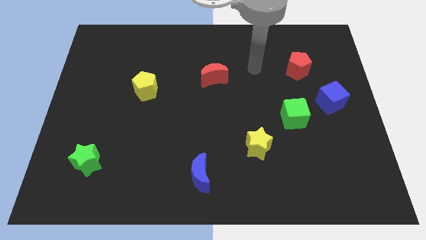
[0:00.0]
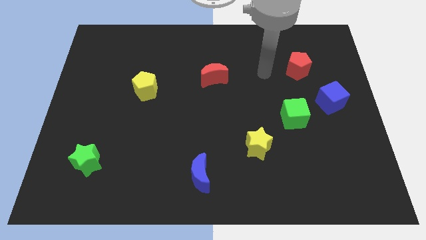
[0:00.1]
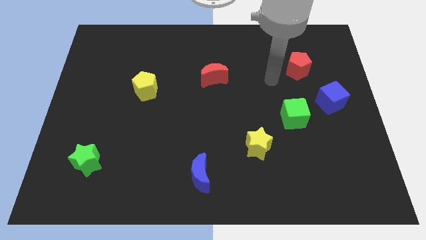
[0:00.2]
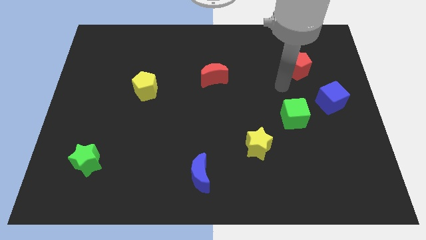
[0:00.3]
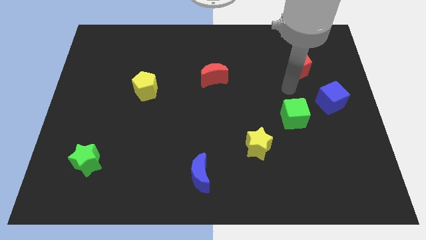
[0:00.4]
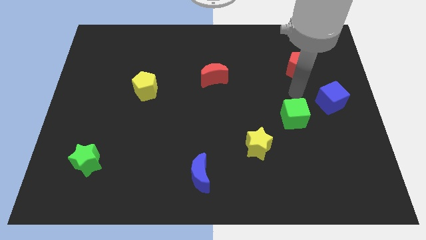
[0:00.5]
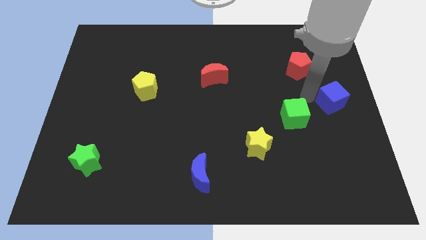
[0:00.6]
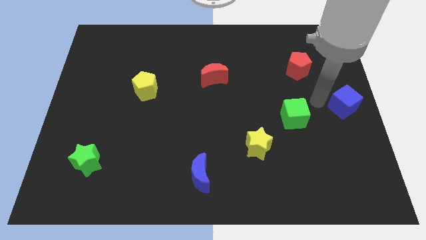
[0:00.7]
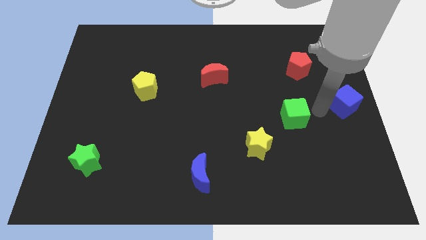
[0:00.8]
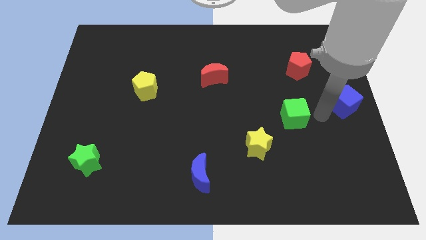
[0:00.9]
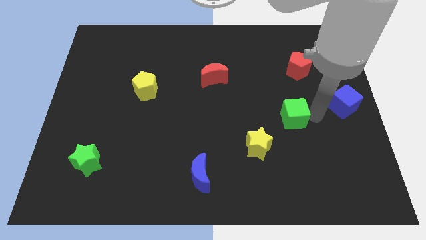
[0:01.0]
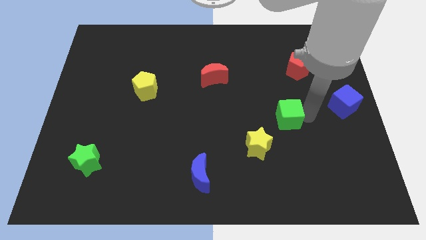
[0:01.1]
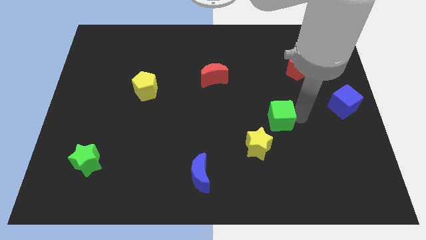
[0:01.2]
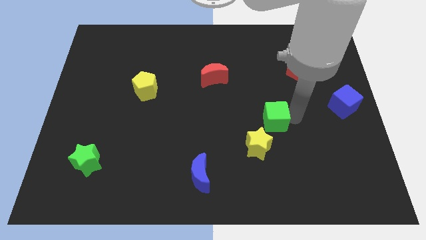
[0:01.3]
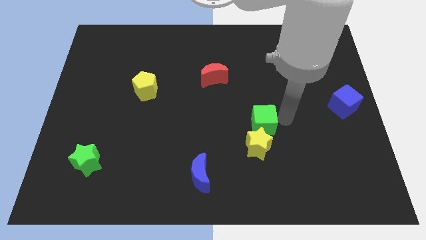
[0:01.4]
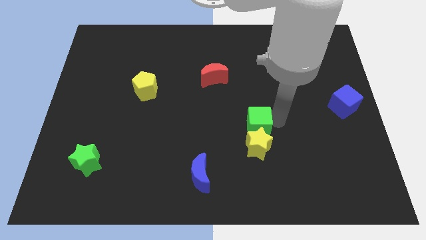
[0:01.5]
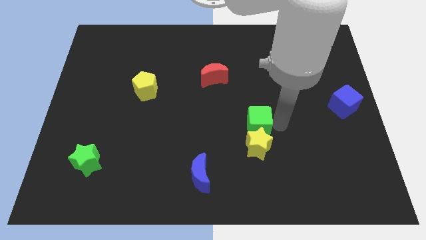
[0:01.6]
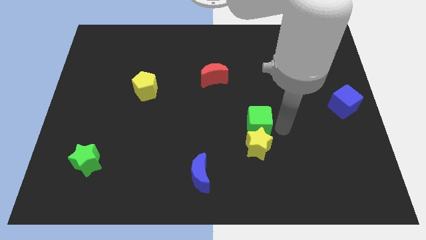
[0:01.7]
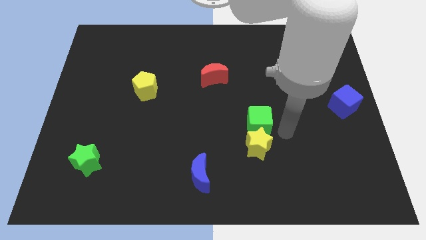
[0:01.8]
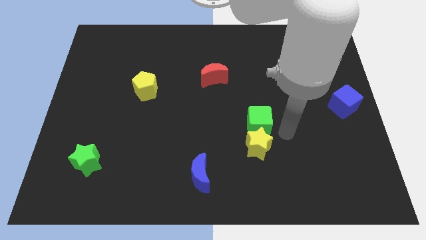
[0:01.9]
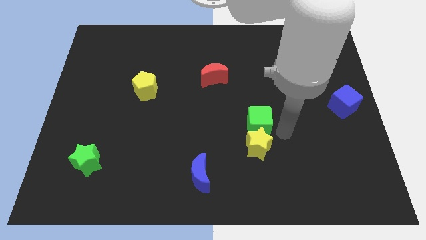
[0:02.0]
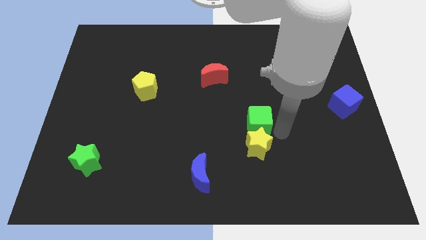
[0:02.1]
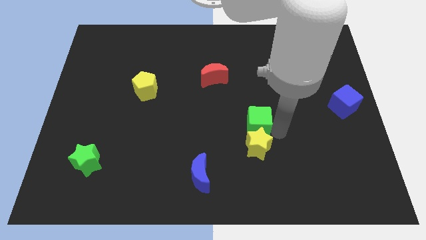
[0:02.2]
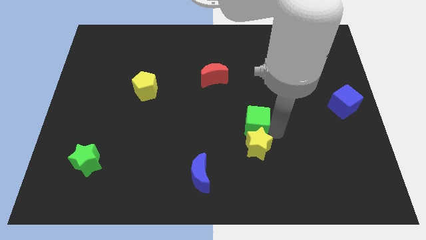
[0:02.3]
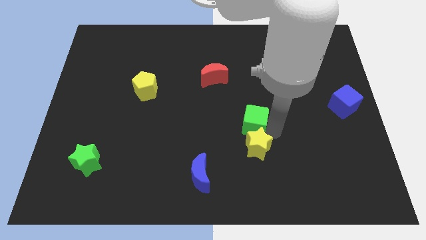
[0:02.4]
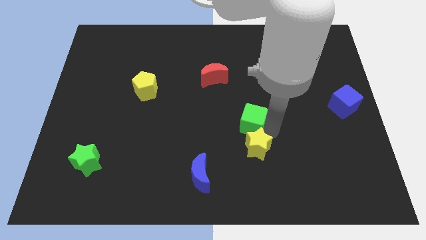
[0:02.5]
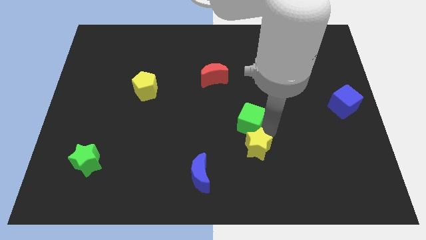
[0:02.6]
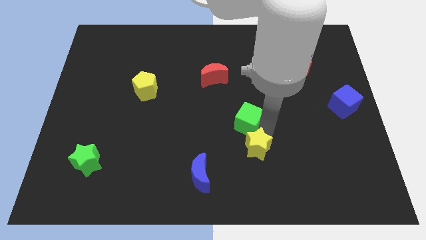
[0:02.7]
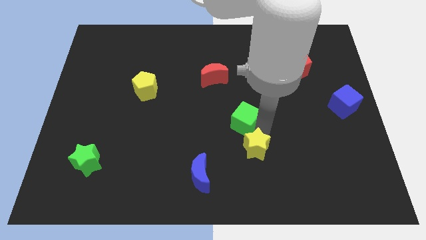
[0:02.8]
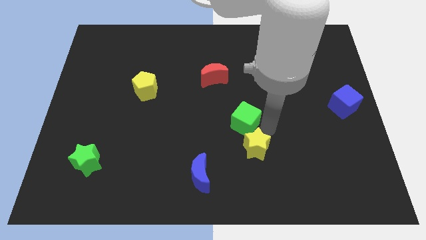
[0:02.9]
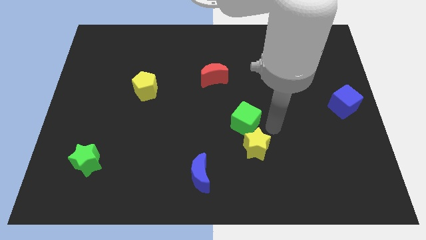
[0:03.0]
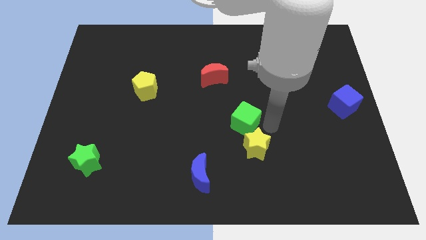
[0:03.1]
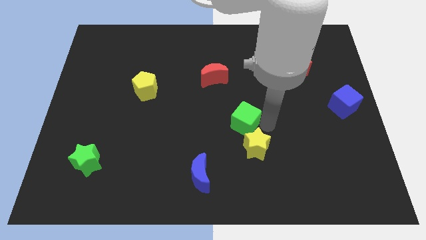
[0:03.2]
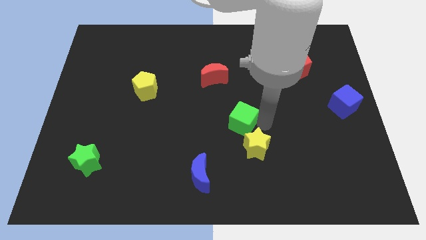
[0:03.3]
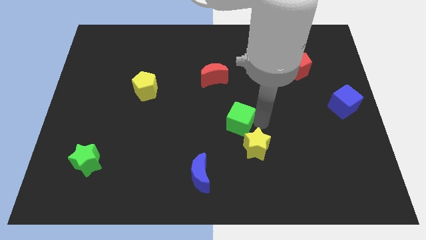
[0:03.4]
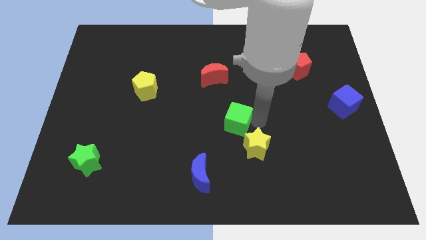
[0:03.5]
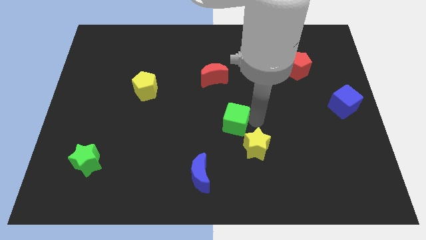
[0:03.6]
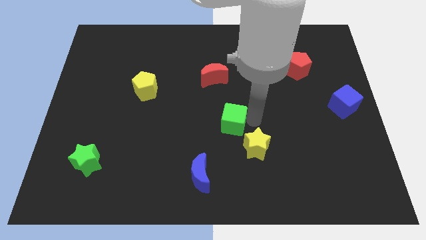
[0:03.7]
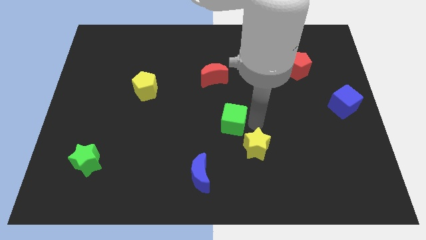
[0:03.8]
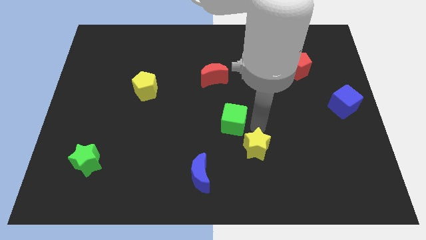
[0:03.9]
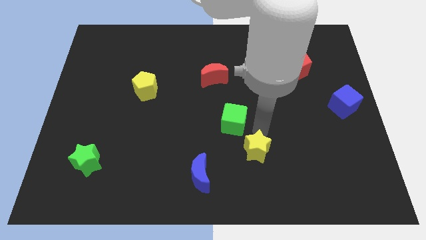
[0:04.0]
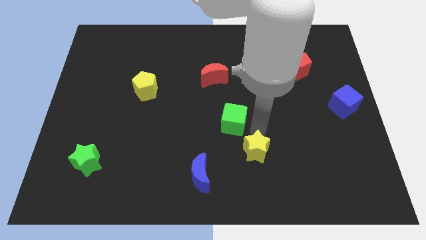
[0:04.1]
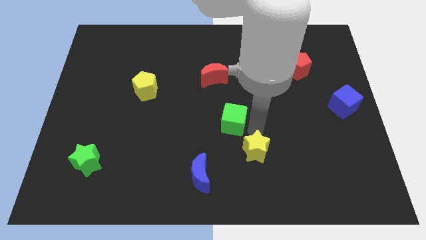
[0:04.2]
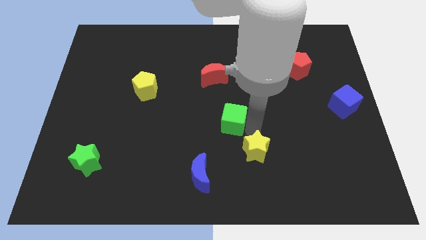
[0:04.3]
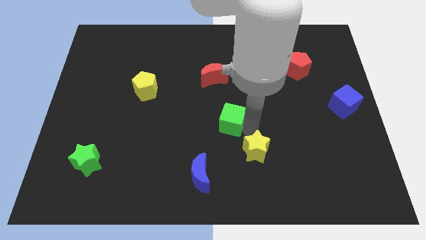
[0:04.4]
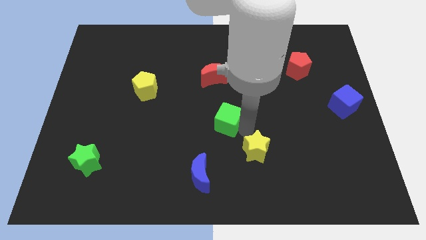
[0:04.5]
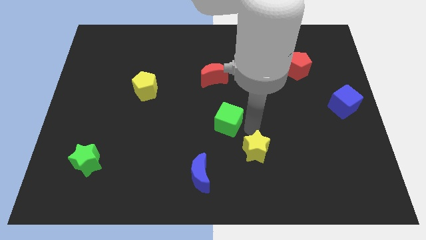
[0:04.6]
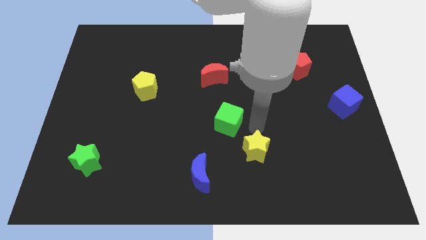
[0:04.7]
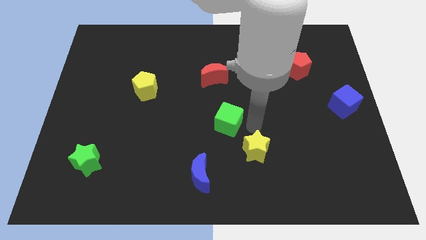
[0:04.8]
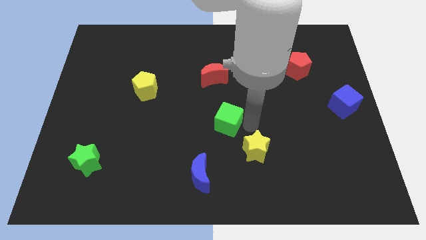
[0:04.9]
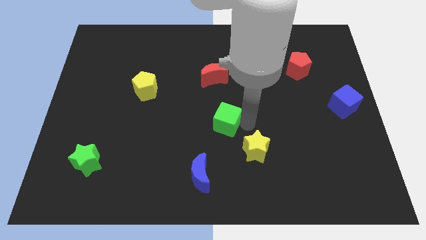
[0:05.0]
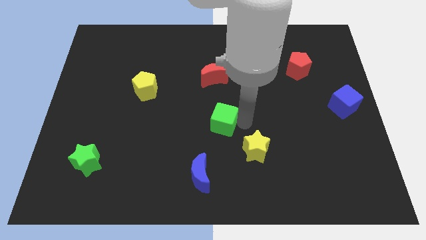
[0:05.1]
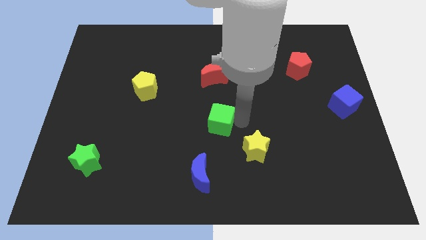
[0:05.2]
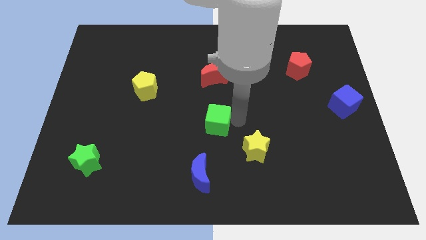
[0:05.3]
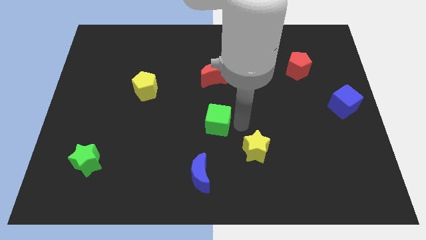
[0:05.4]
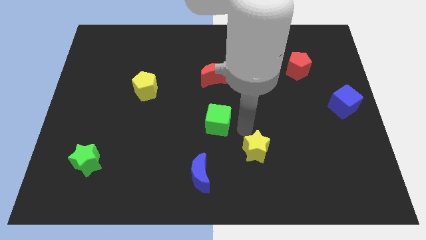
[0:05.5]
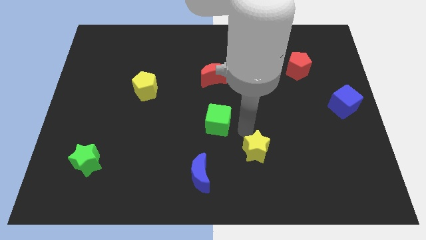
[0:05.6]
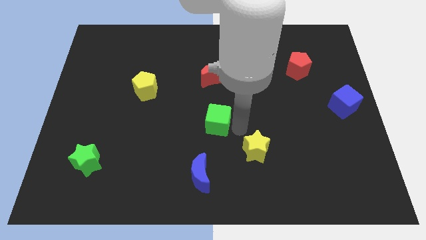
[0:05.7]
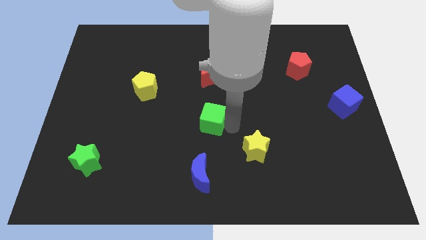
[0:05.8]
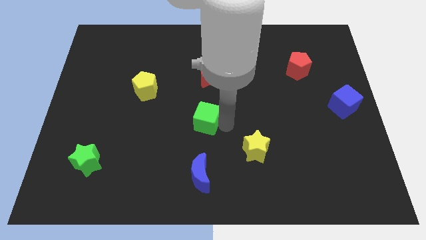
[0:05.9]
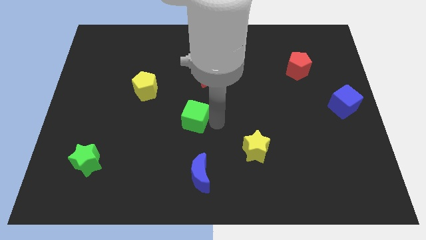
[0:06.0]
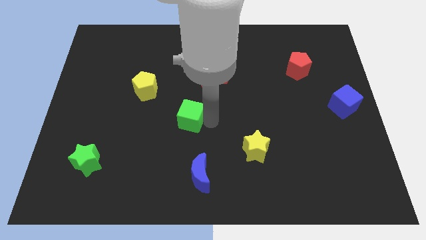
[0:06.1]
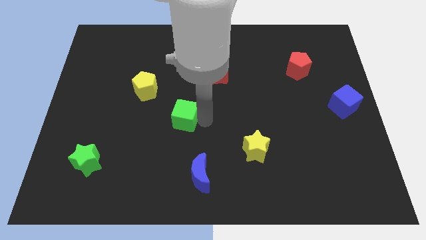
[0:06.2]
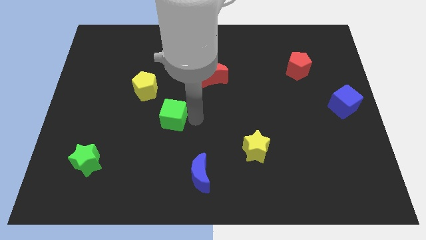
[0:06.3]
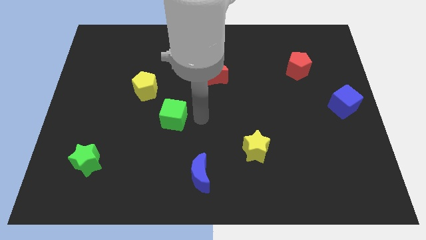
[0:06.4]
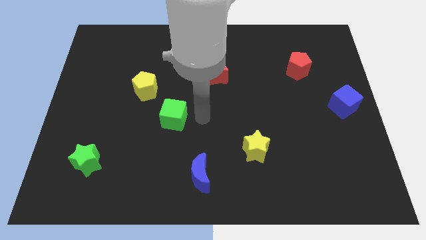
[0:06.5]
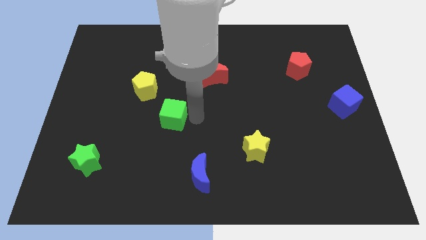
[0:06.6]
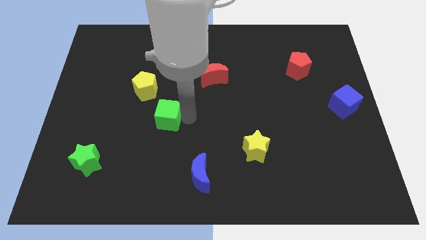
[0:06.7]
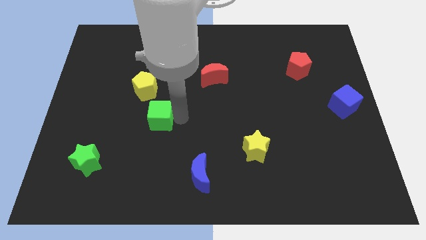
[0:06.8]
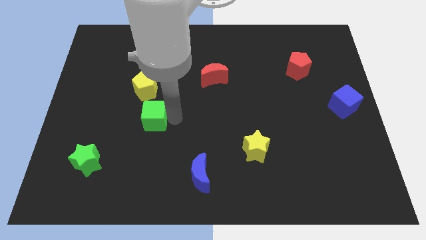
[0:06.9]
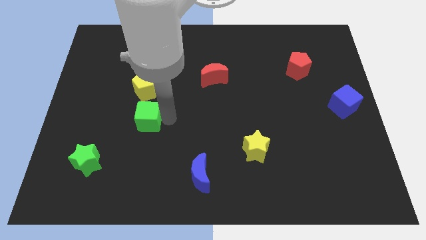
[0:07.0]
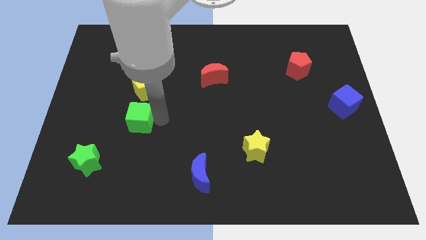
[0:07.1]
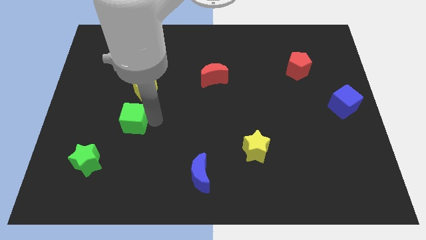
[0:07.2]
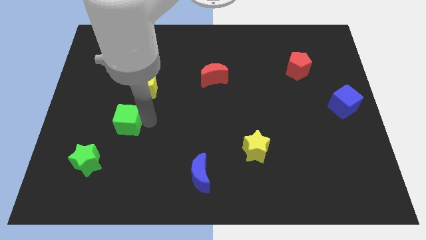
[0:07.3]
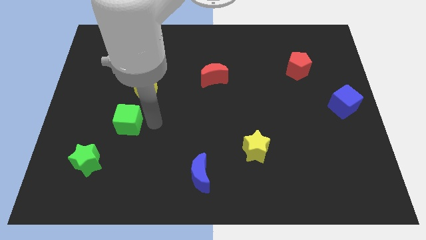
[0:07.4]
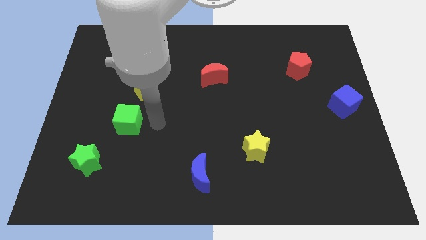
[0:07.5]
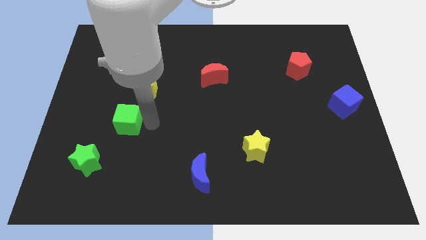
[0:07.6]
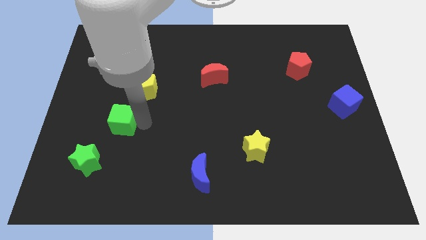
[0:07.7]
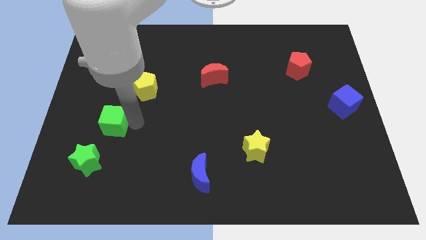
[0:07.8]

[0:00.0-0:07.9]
move the green cube to the top of the green star

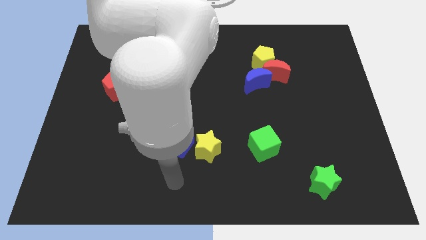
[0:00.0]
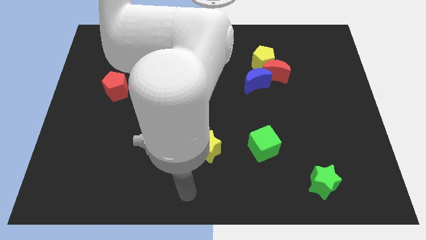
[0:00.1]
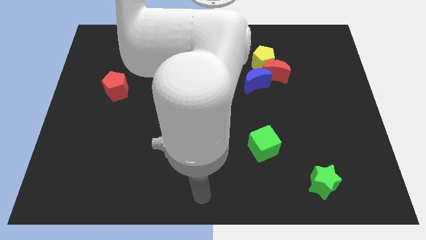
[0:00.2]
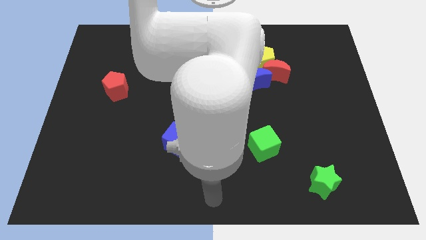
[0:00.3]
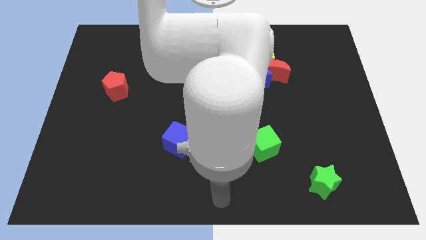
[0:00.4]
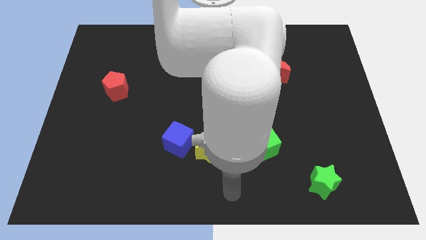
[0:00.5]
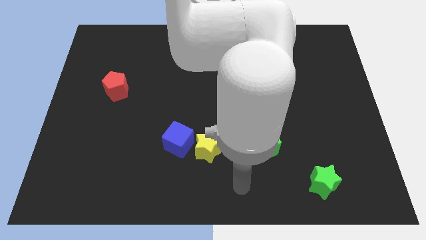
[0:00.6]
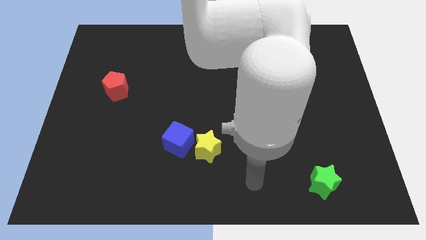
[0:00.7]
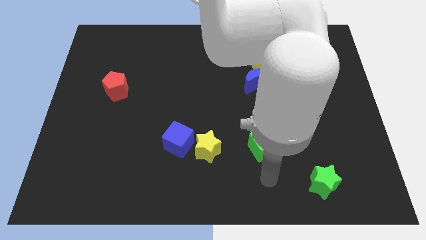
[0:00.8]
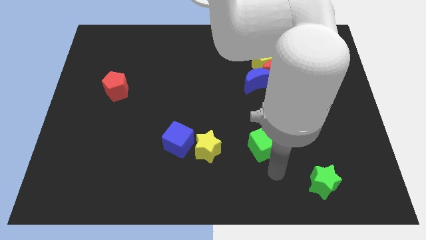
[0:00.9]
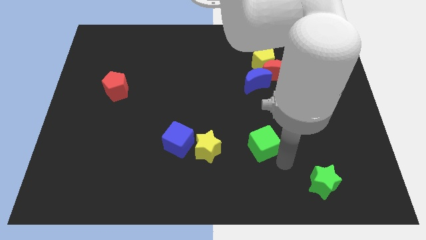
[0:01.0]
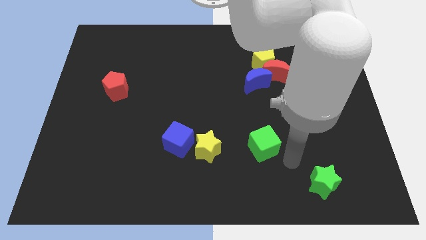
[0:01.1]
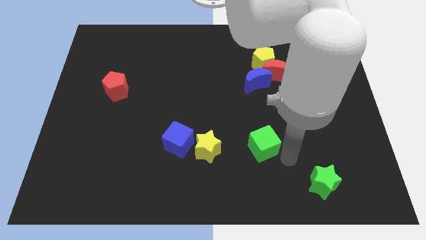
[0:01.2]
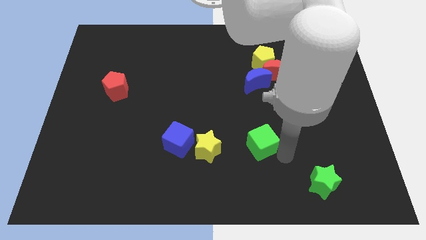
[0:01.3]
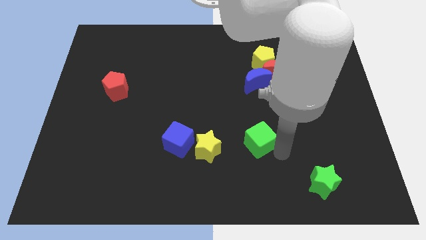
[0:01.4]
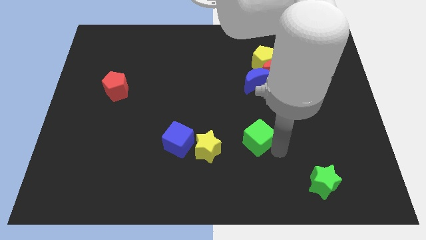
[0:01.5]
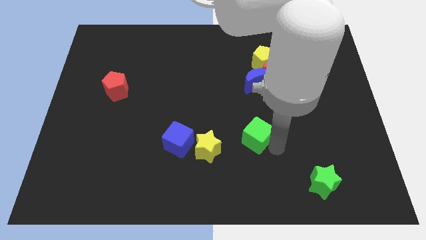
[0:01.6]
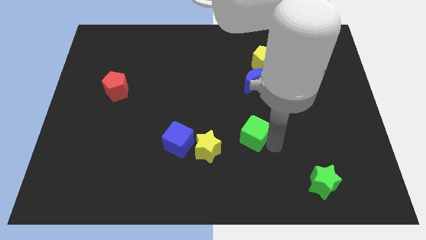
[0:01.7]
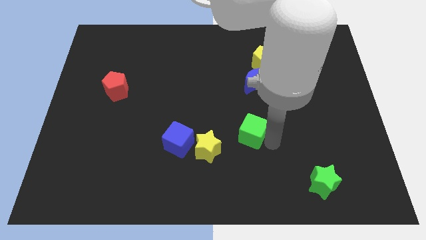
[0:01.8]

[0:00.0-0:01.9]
put the green cube diagonally up and to the right of the yellow star
